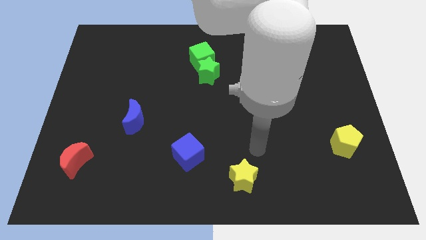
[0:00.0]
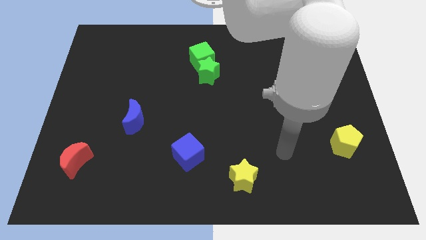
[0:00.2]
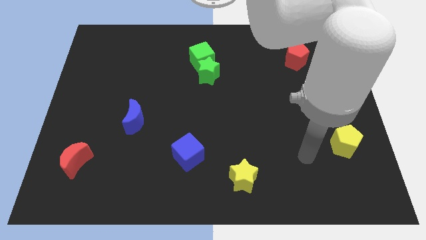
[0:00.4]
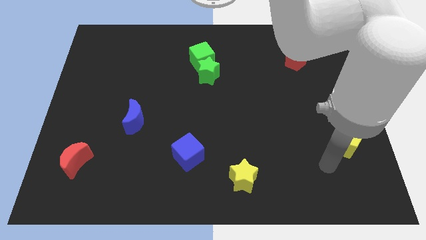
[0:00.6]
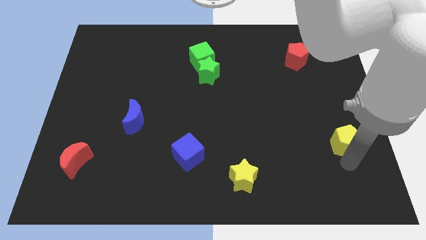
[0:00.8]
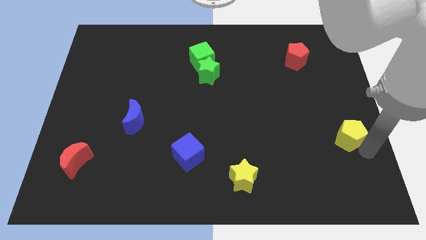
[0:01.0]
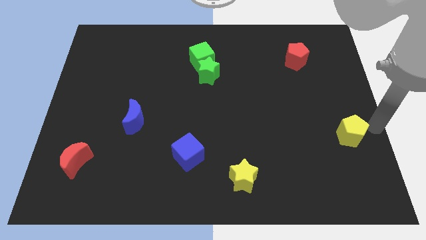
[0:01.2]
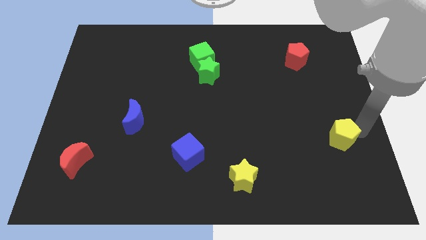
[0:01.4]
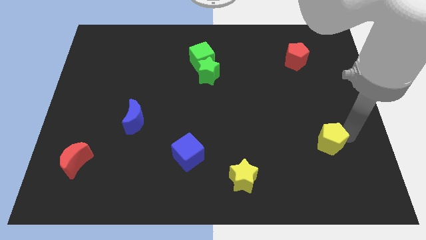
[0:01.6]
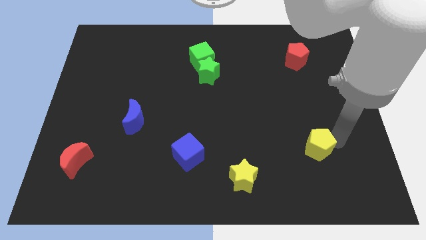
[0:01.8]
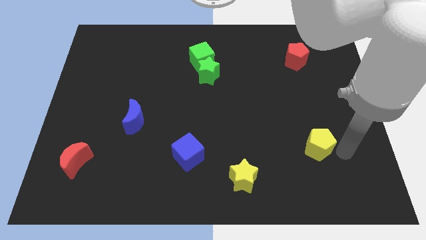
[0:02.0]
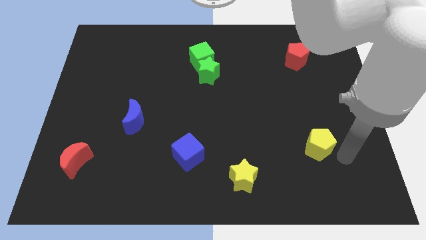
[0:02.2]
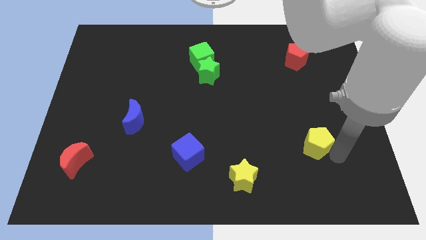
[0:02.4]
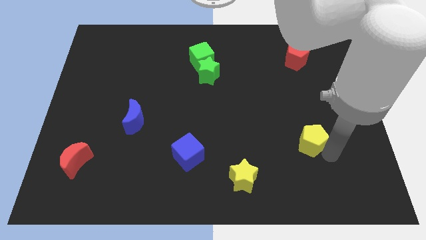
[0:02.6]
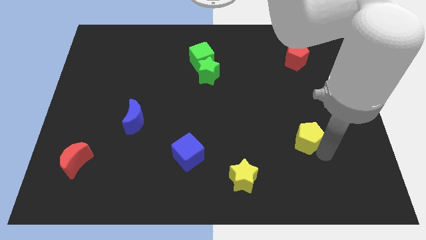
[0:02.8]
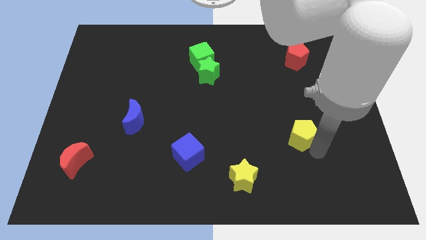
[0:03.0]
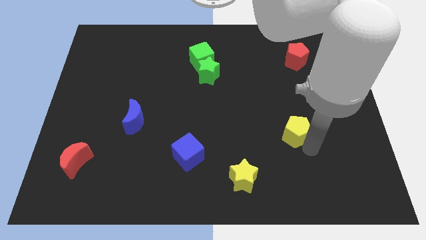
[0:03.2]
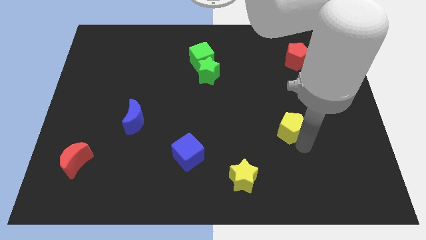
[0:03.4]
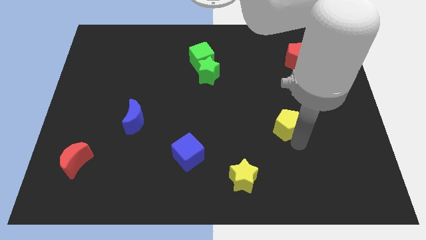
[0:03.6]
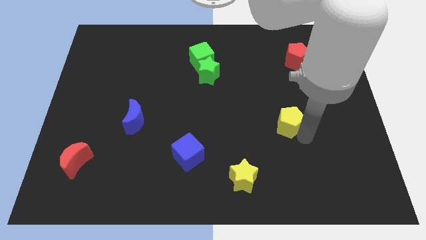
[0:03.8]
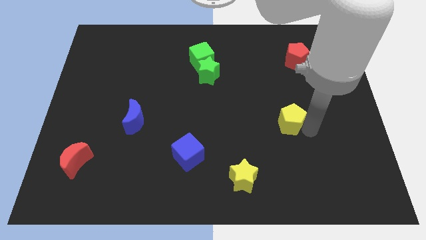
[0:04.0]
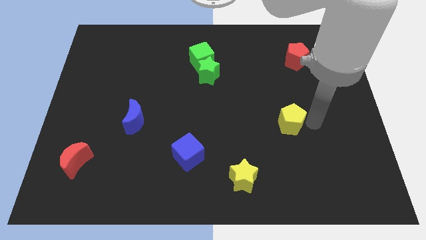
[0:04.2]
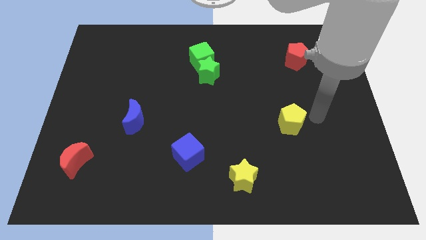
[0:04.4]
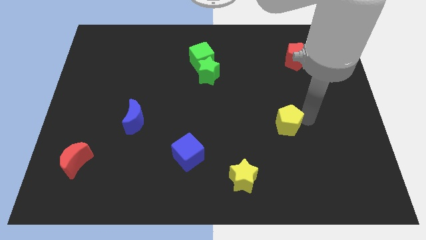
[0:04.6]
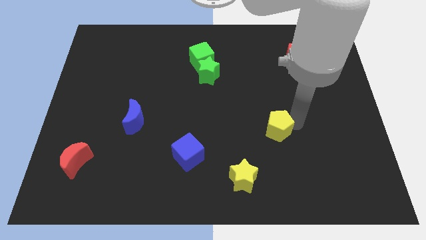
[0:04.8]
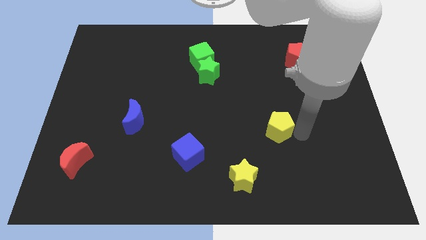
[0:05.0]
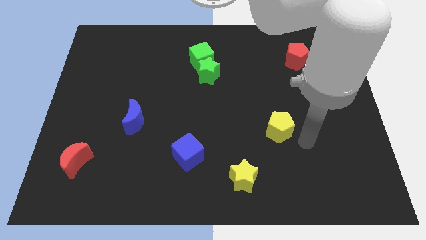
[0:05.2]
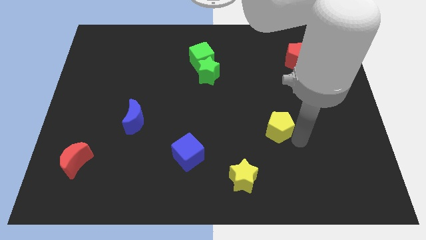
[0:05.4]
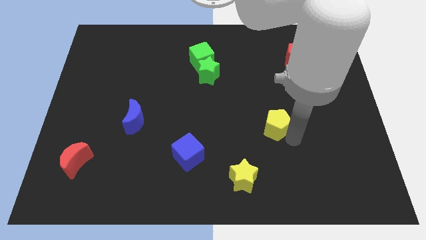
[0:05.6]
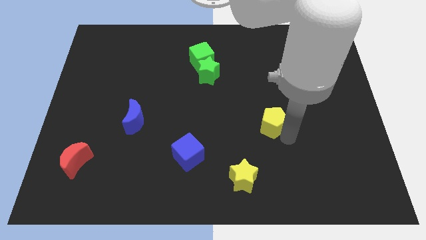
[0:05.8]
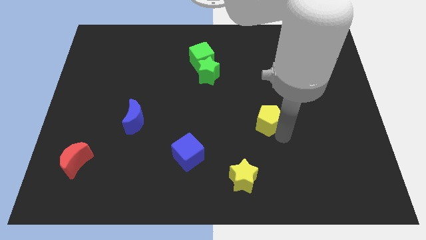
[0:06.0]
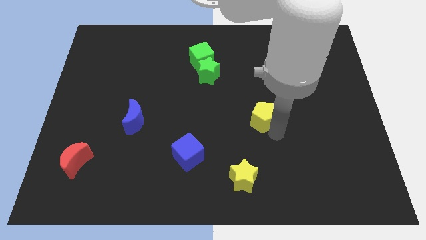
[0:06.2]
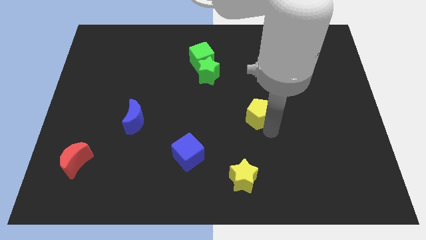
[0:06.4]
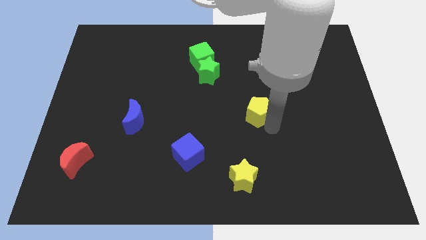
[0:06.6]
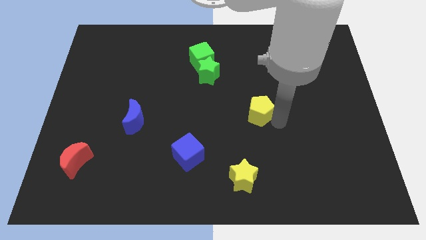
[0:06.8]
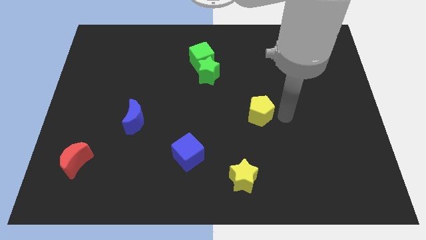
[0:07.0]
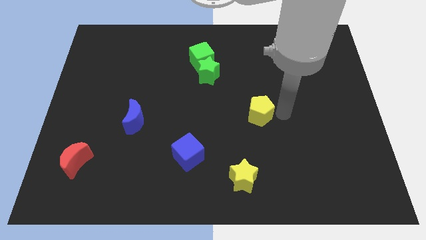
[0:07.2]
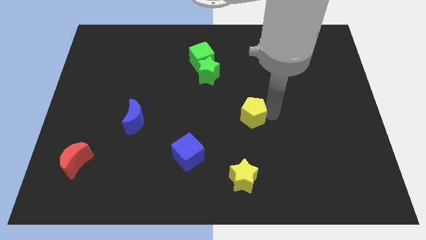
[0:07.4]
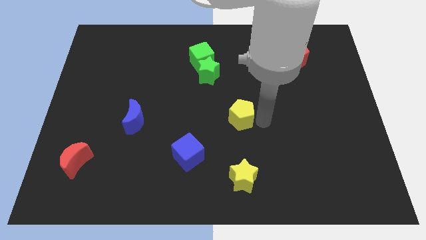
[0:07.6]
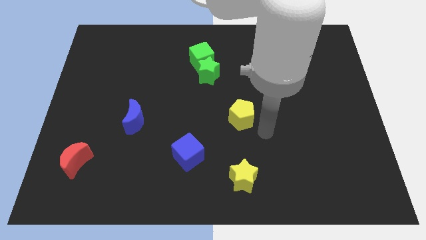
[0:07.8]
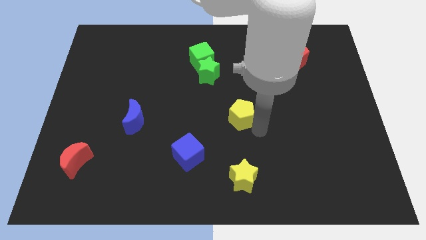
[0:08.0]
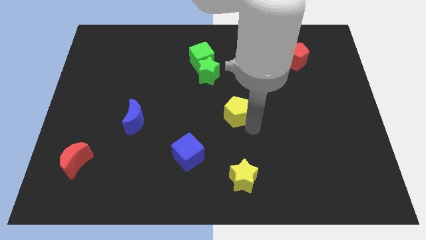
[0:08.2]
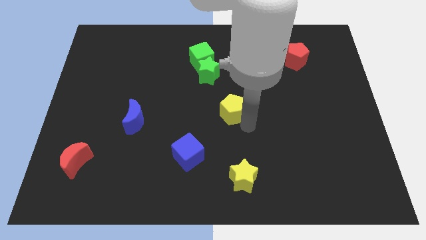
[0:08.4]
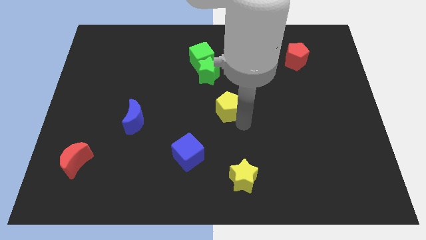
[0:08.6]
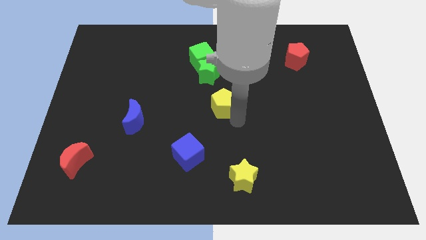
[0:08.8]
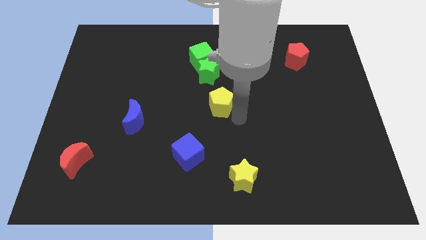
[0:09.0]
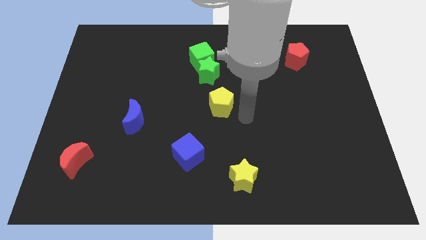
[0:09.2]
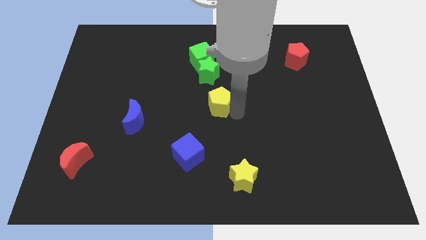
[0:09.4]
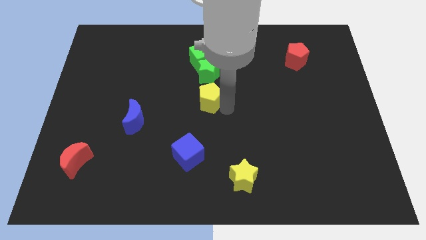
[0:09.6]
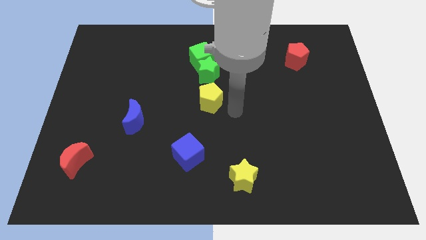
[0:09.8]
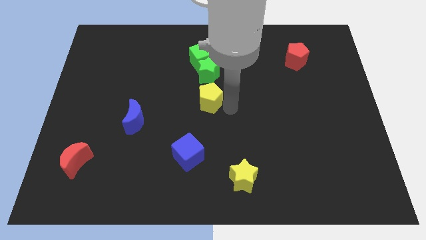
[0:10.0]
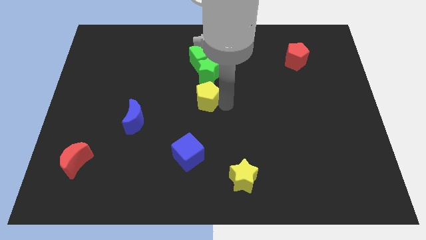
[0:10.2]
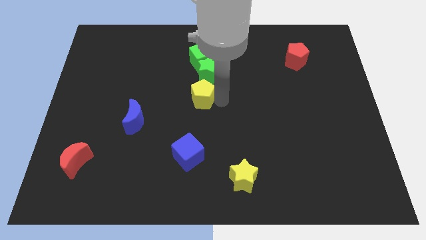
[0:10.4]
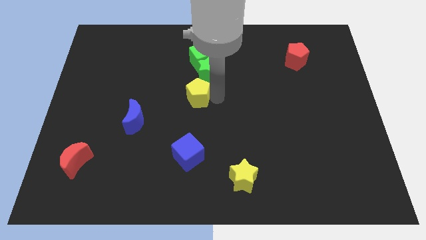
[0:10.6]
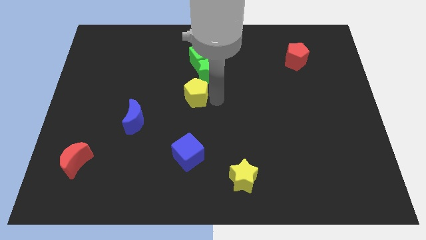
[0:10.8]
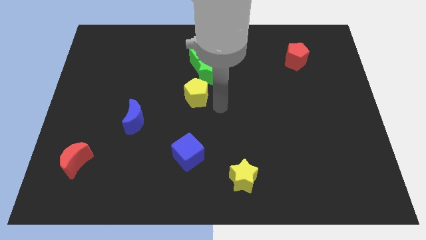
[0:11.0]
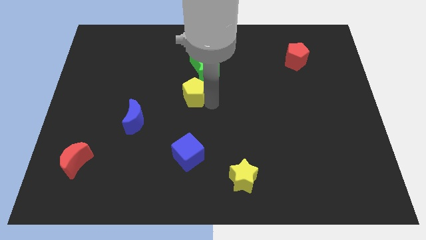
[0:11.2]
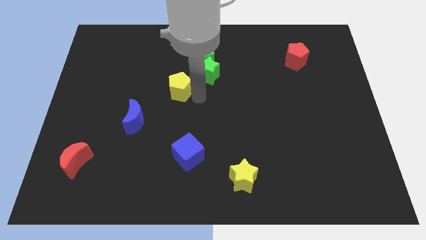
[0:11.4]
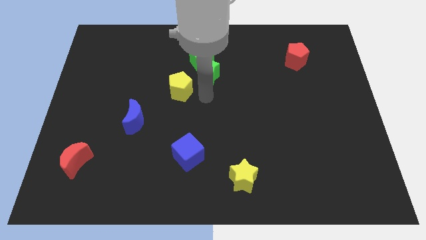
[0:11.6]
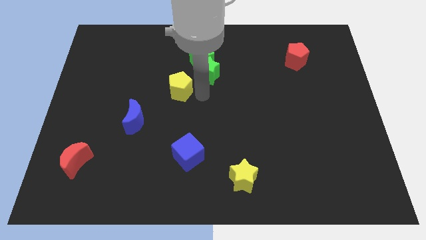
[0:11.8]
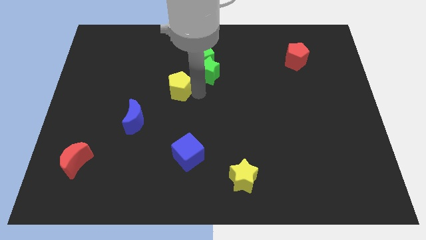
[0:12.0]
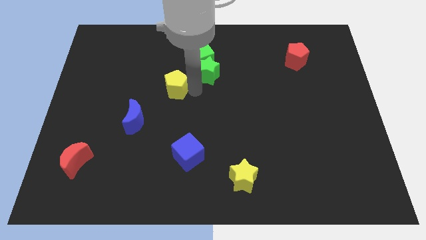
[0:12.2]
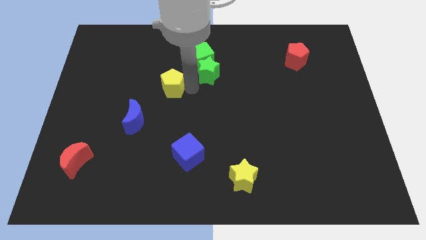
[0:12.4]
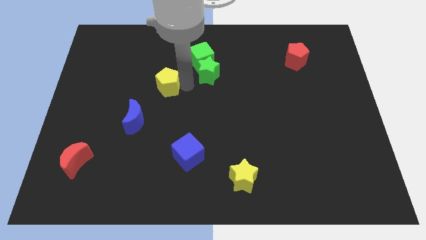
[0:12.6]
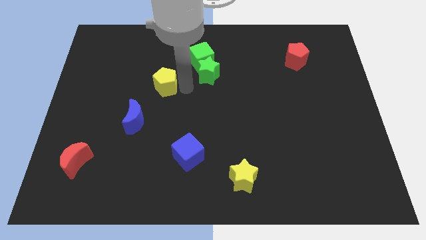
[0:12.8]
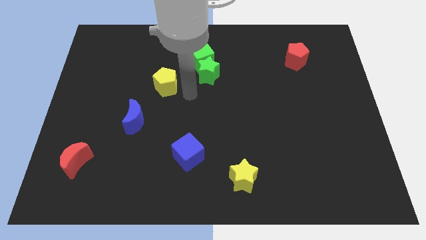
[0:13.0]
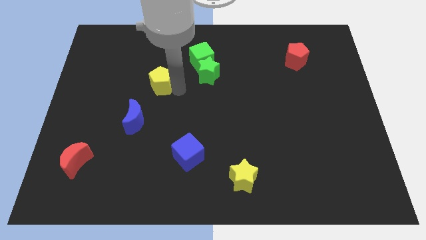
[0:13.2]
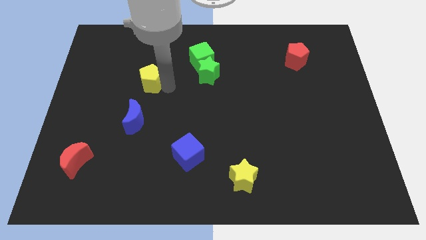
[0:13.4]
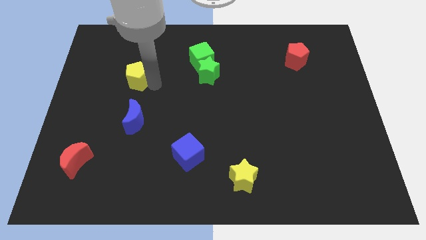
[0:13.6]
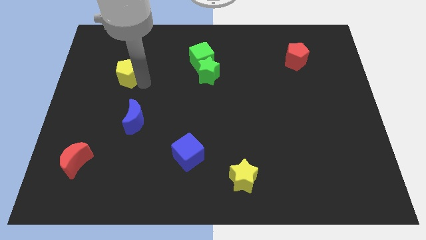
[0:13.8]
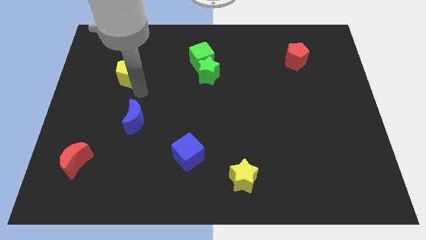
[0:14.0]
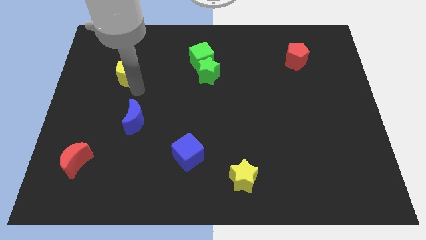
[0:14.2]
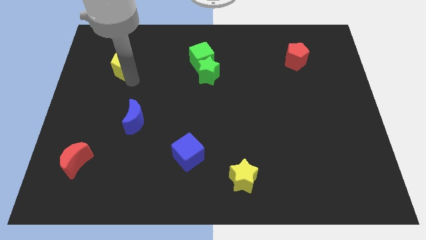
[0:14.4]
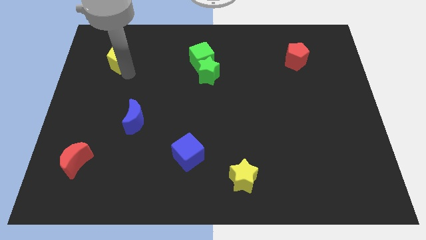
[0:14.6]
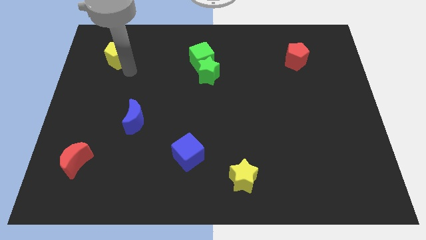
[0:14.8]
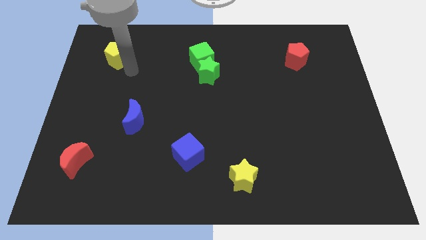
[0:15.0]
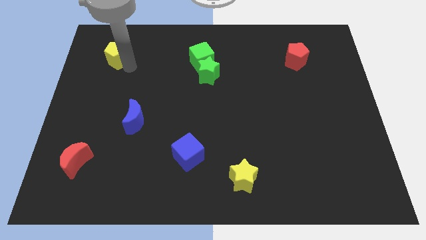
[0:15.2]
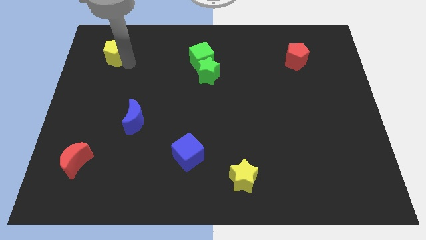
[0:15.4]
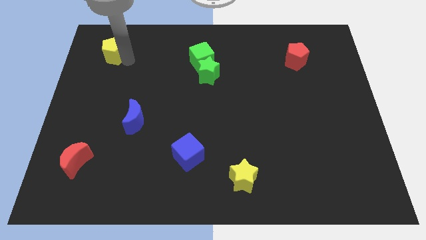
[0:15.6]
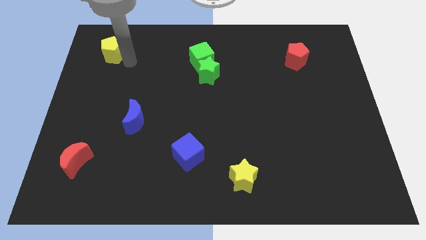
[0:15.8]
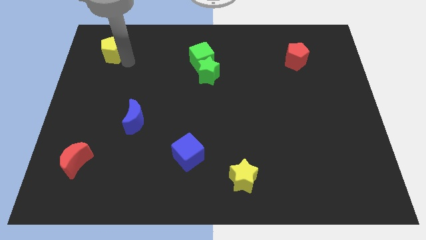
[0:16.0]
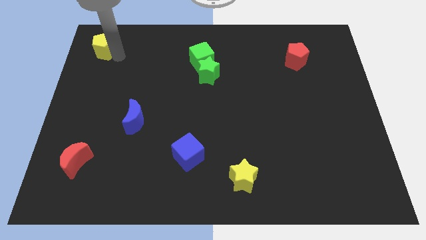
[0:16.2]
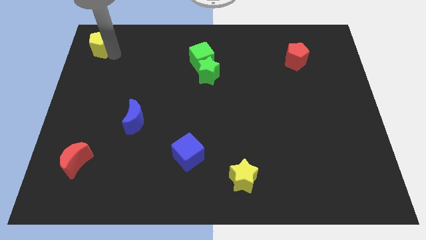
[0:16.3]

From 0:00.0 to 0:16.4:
push the yellow pentagon to the top left corner
